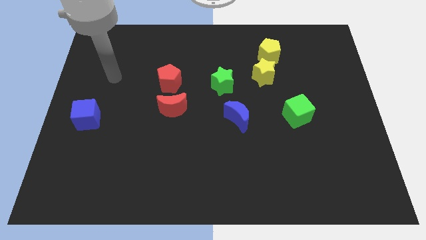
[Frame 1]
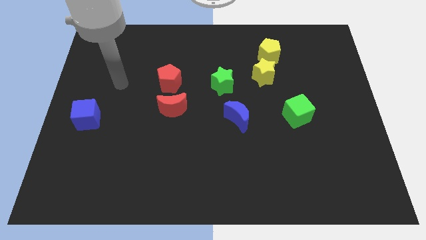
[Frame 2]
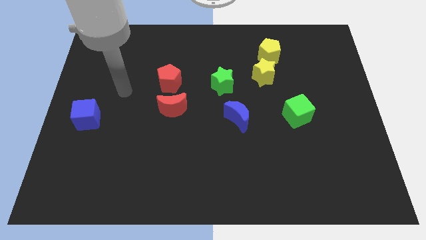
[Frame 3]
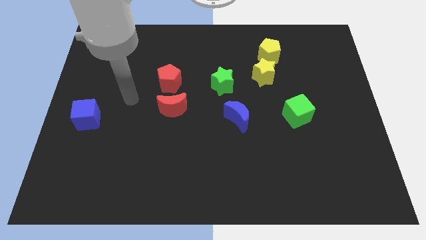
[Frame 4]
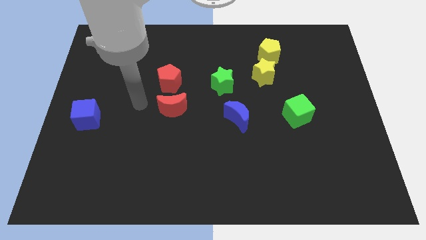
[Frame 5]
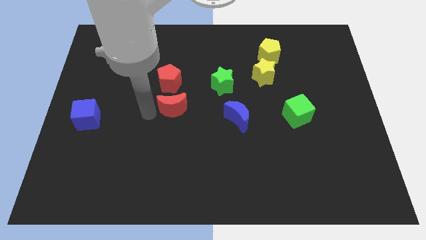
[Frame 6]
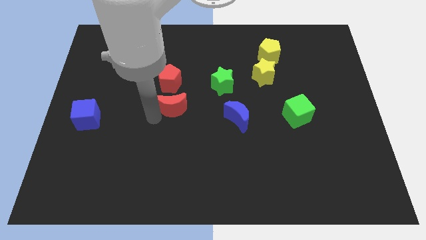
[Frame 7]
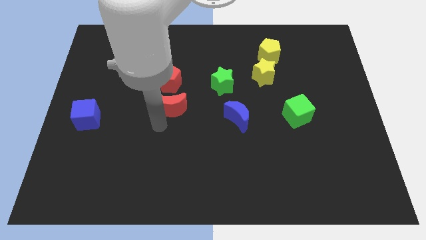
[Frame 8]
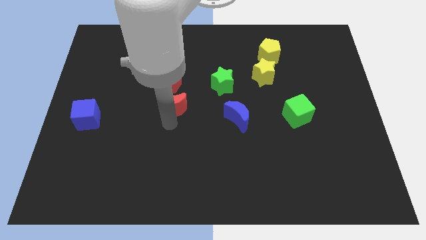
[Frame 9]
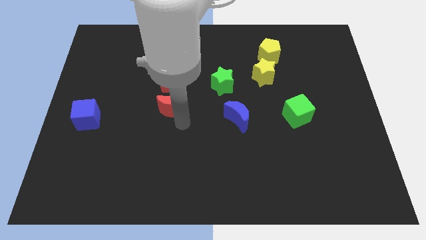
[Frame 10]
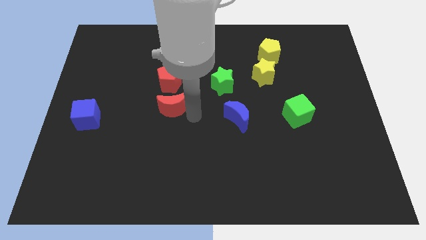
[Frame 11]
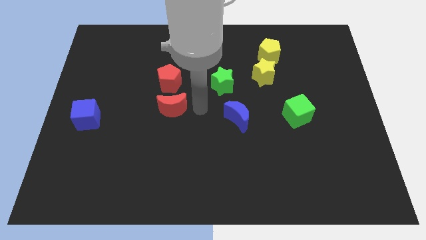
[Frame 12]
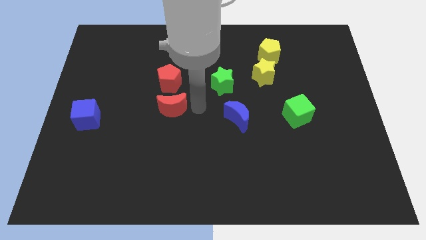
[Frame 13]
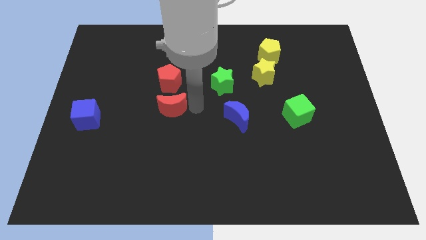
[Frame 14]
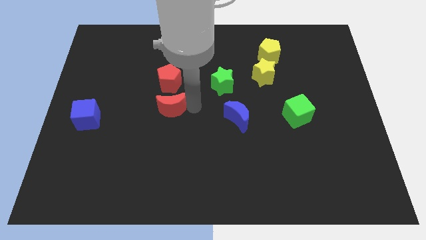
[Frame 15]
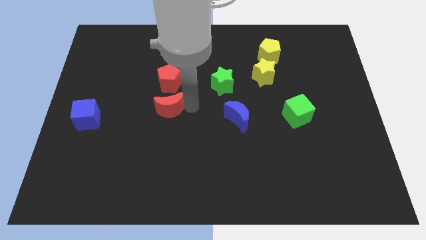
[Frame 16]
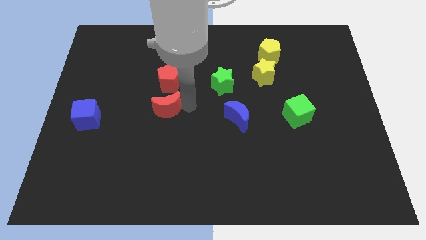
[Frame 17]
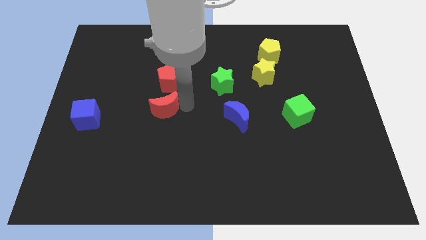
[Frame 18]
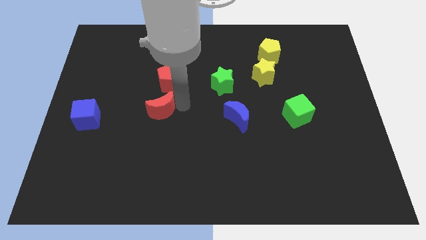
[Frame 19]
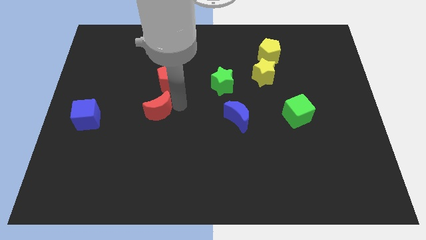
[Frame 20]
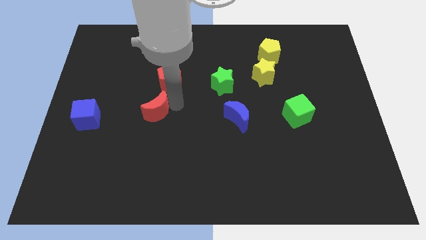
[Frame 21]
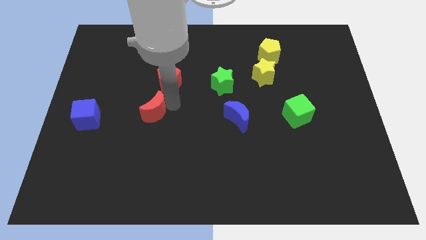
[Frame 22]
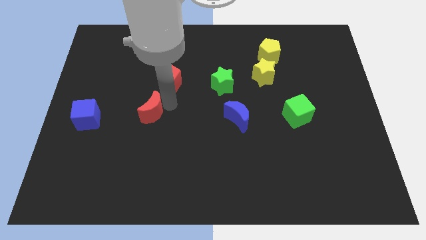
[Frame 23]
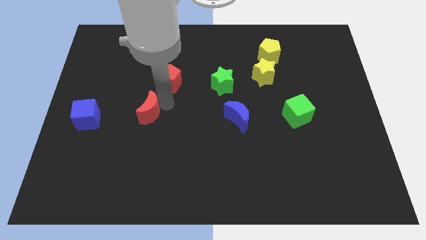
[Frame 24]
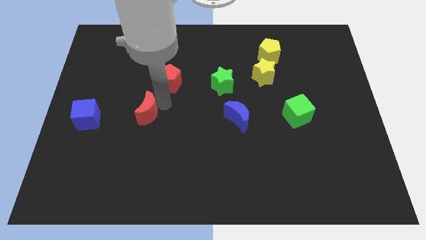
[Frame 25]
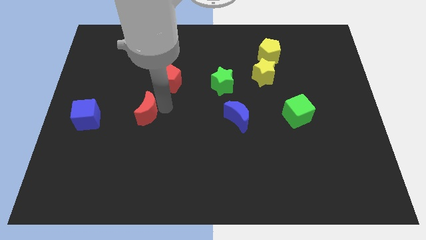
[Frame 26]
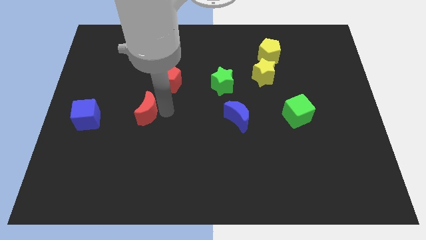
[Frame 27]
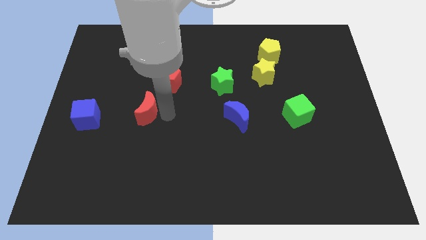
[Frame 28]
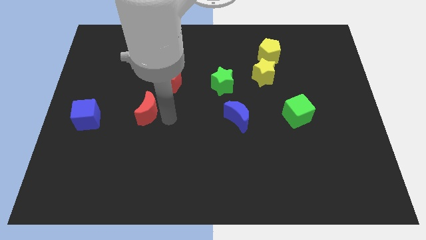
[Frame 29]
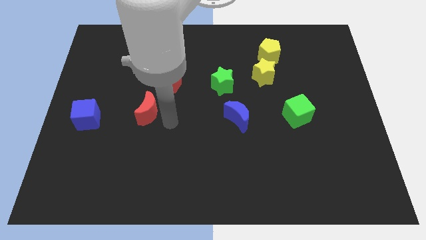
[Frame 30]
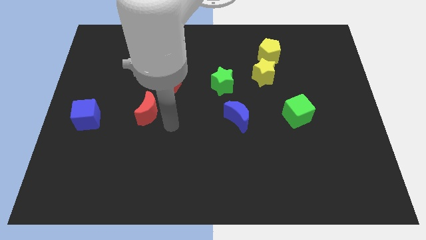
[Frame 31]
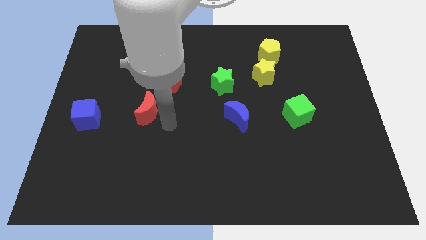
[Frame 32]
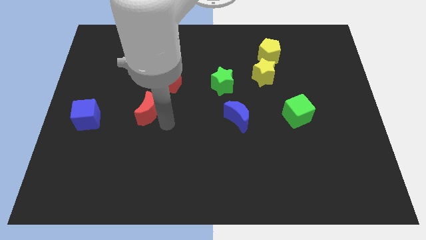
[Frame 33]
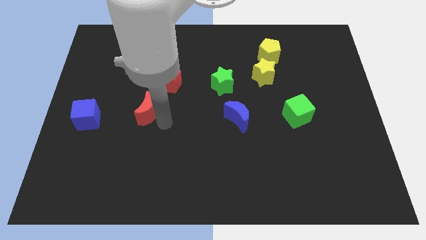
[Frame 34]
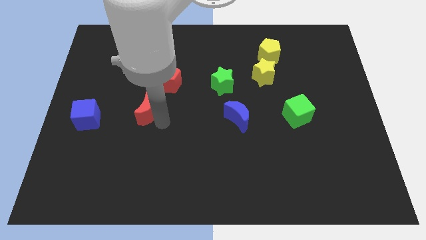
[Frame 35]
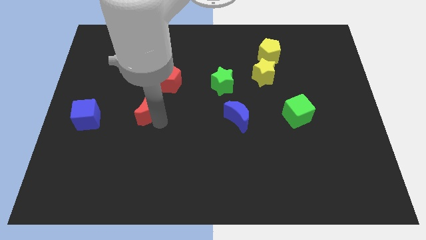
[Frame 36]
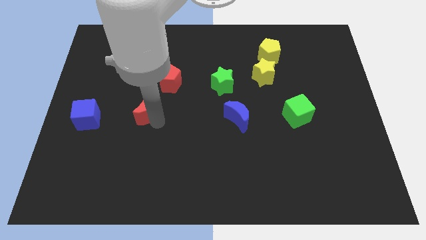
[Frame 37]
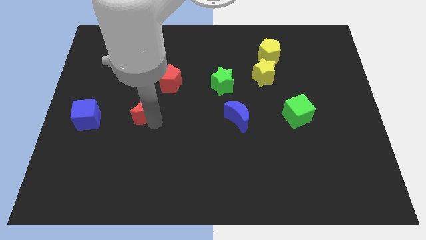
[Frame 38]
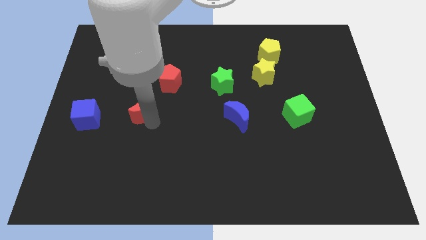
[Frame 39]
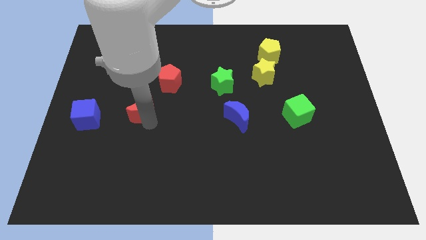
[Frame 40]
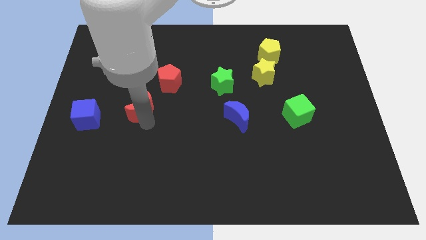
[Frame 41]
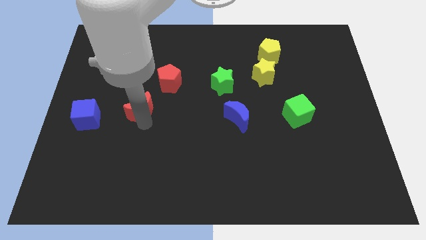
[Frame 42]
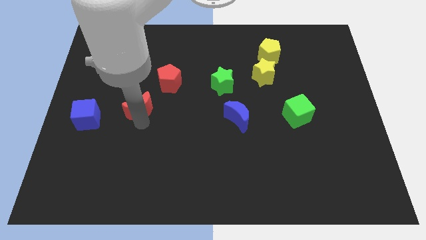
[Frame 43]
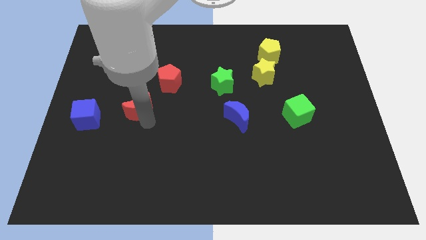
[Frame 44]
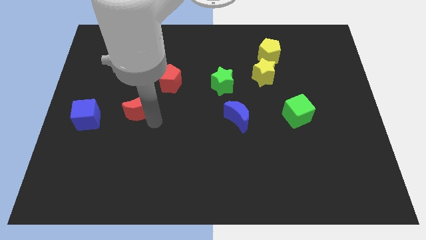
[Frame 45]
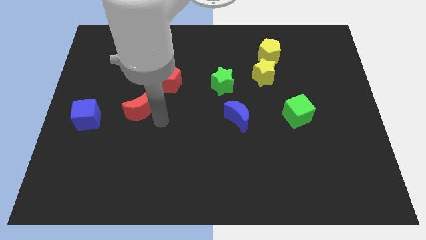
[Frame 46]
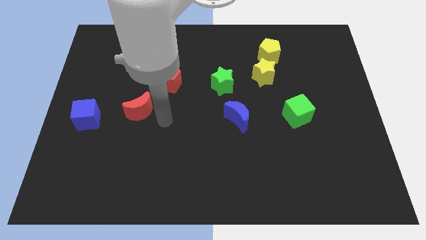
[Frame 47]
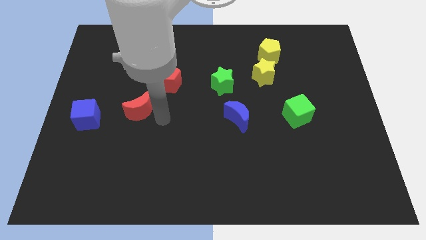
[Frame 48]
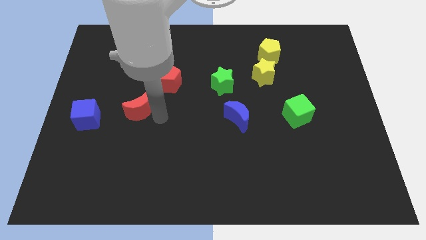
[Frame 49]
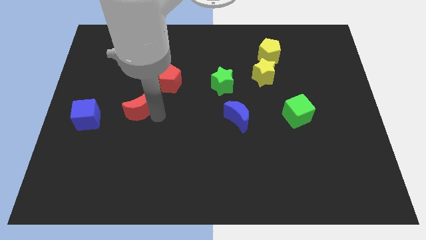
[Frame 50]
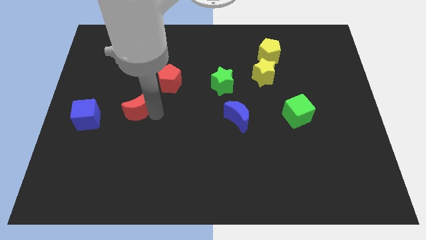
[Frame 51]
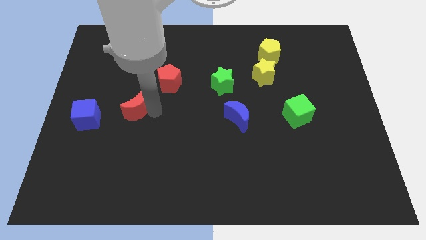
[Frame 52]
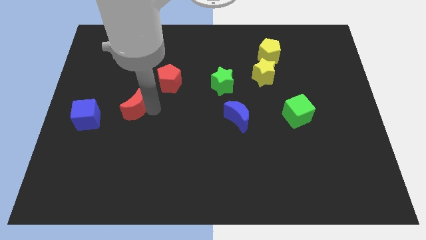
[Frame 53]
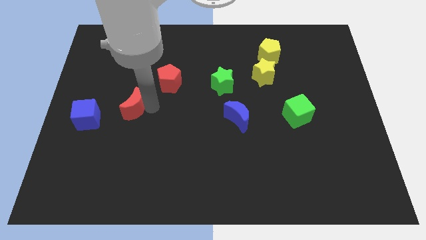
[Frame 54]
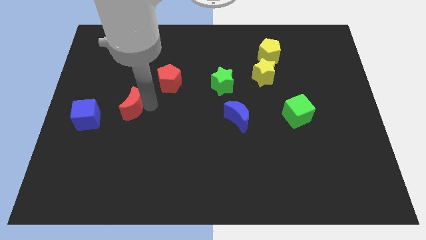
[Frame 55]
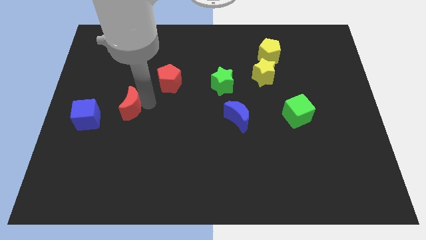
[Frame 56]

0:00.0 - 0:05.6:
put the red moon to the top right of the blue cube

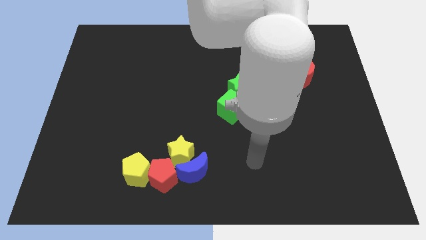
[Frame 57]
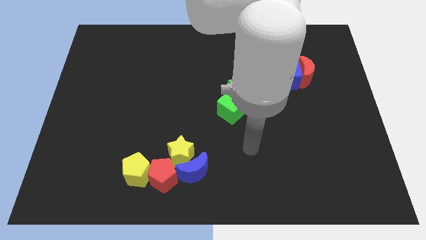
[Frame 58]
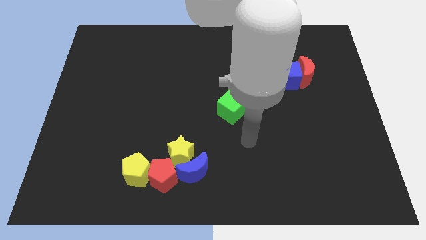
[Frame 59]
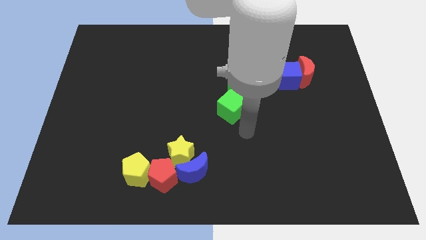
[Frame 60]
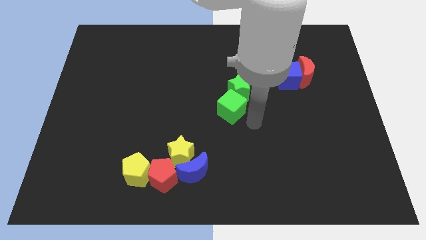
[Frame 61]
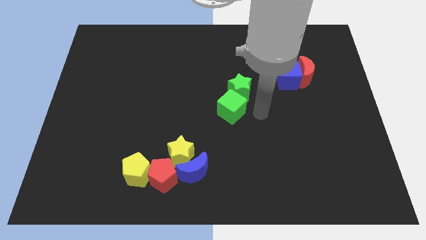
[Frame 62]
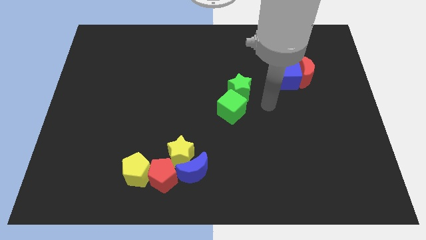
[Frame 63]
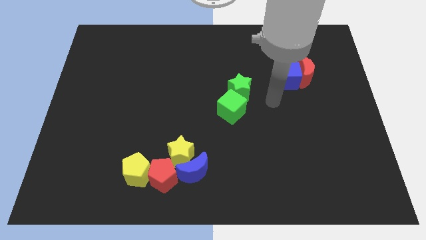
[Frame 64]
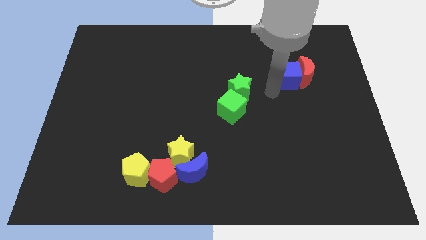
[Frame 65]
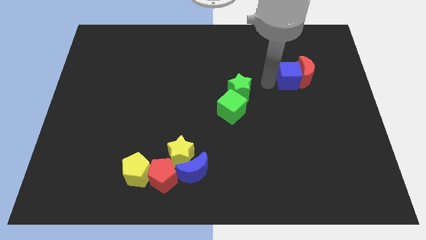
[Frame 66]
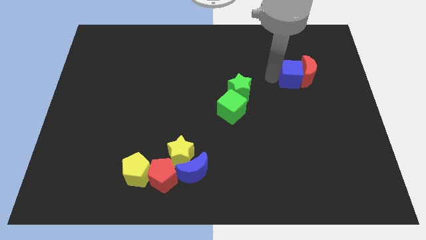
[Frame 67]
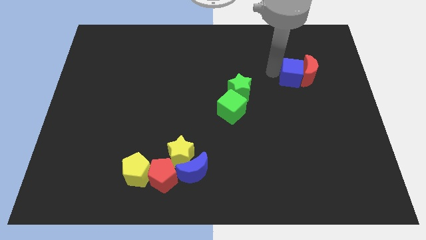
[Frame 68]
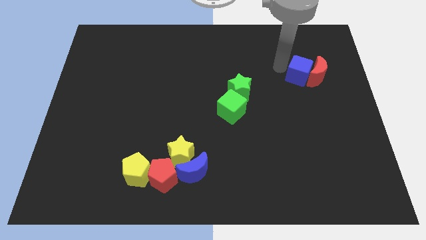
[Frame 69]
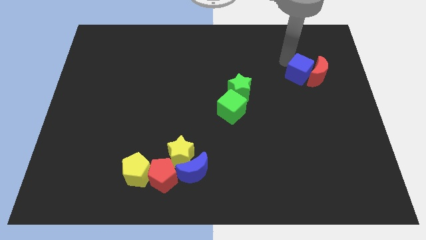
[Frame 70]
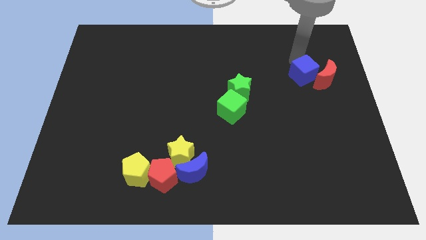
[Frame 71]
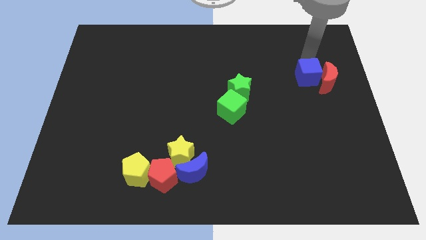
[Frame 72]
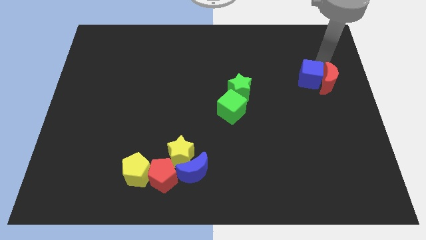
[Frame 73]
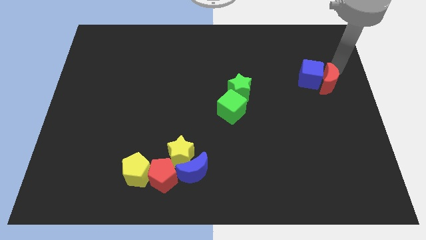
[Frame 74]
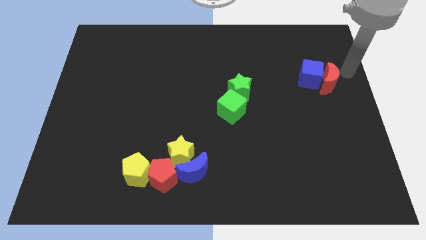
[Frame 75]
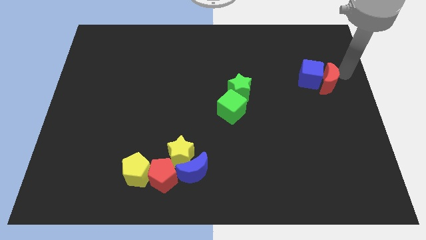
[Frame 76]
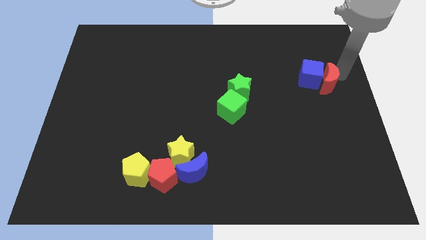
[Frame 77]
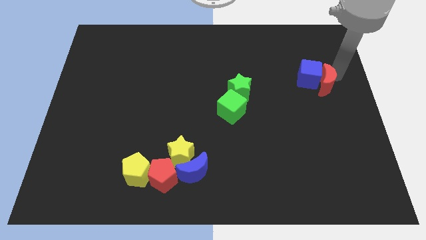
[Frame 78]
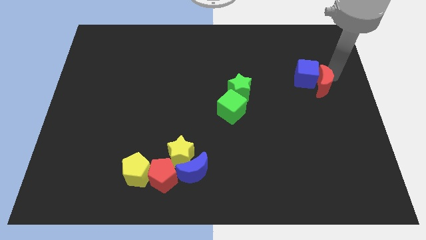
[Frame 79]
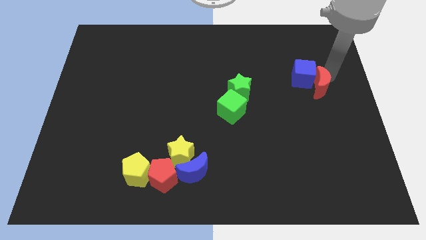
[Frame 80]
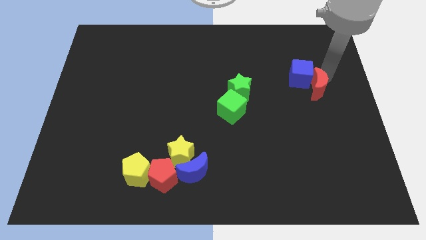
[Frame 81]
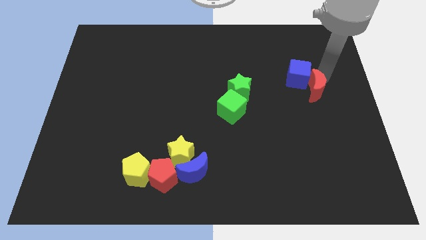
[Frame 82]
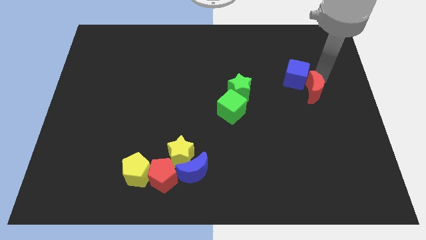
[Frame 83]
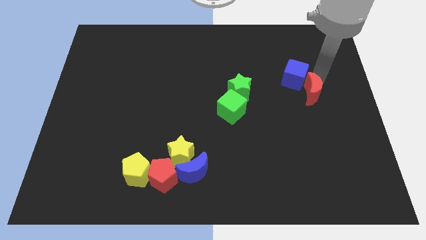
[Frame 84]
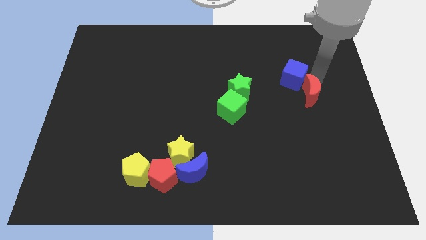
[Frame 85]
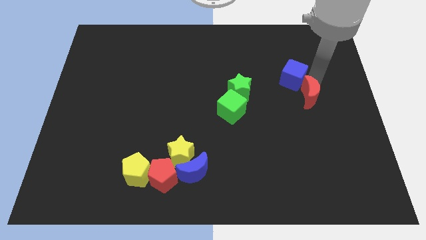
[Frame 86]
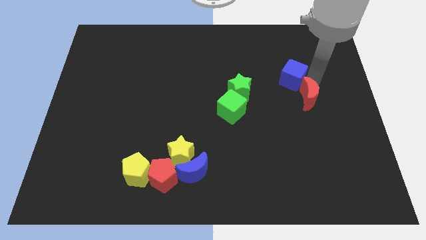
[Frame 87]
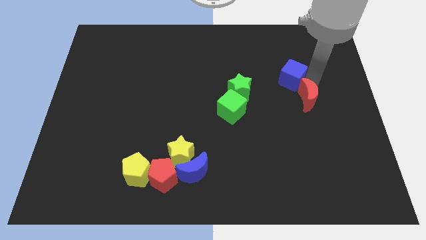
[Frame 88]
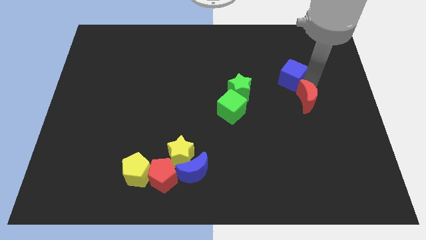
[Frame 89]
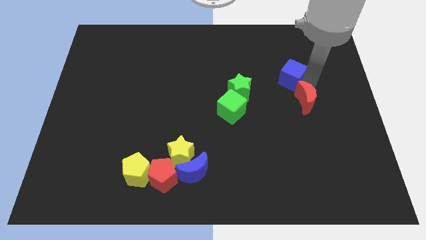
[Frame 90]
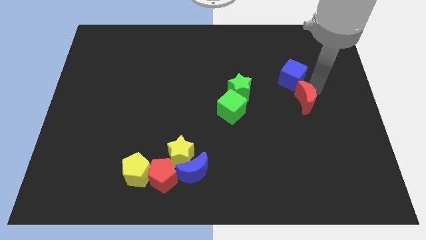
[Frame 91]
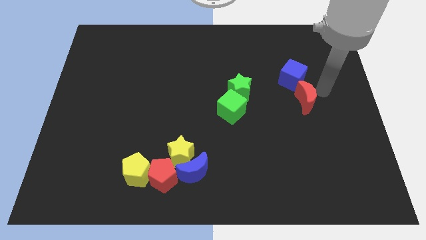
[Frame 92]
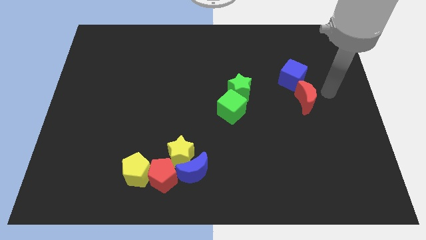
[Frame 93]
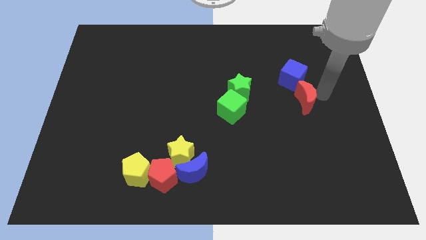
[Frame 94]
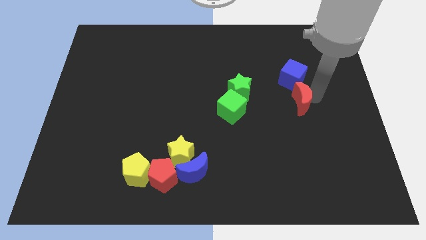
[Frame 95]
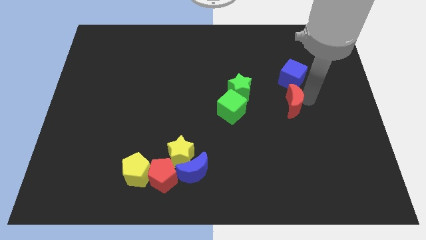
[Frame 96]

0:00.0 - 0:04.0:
slide the red moon just right of the green cube
